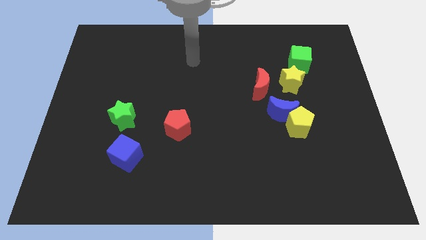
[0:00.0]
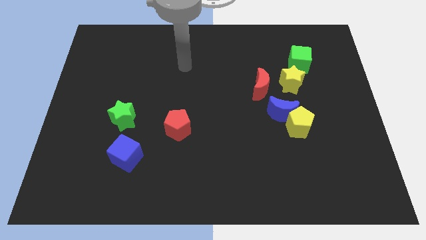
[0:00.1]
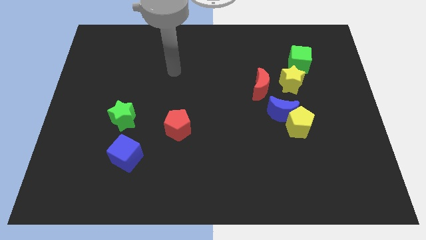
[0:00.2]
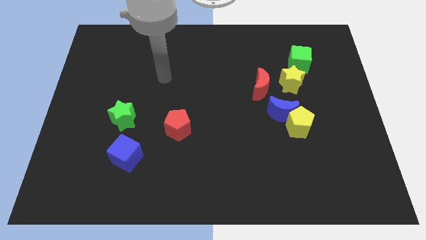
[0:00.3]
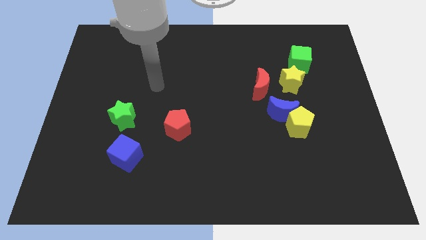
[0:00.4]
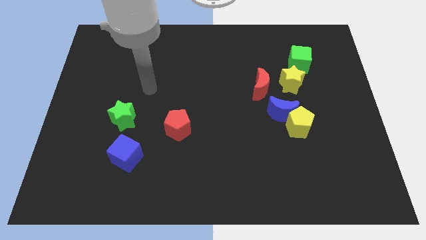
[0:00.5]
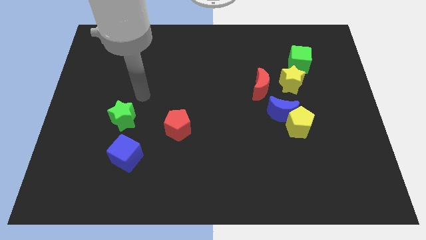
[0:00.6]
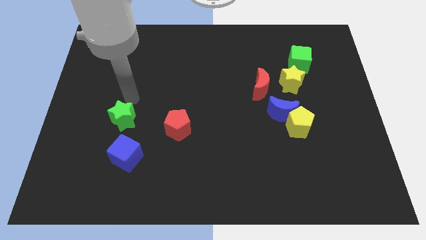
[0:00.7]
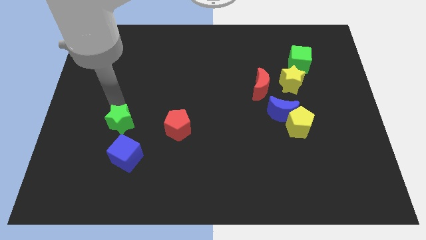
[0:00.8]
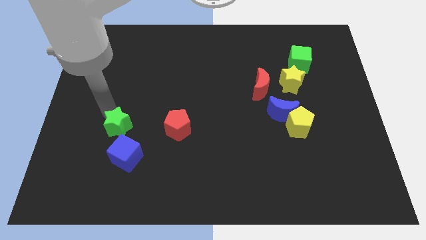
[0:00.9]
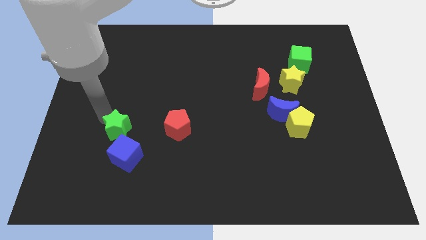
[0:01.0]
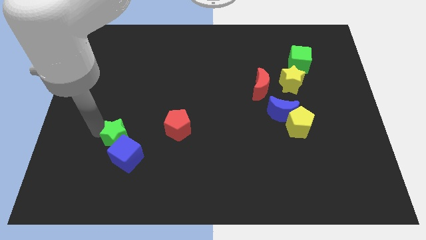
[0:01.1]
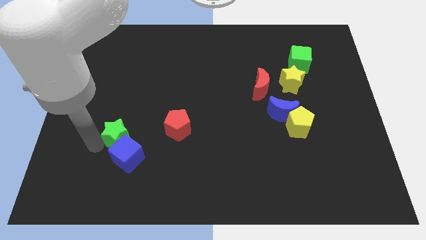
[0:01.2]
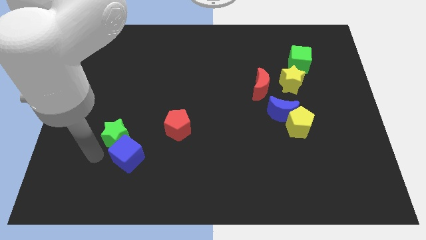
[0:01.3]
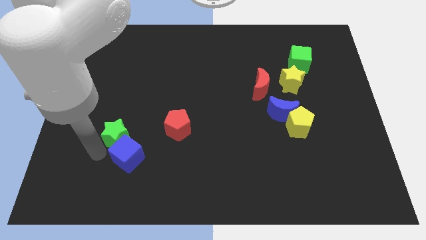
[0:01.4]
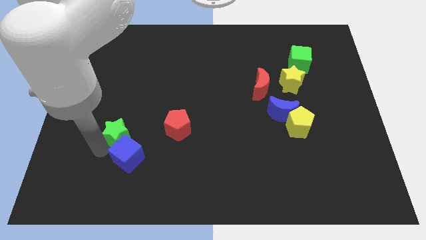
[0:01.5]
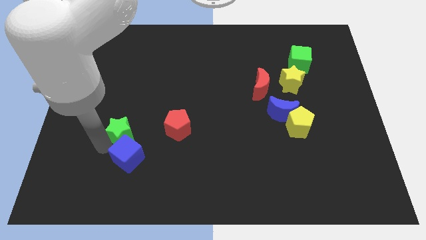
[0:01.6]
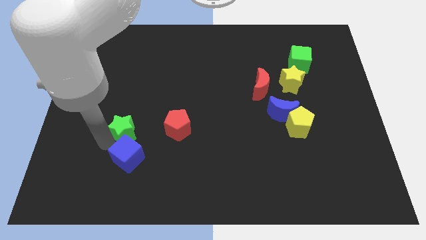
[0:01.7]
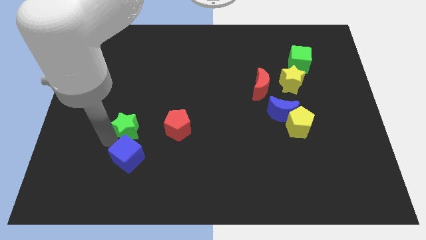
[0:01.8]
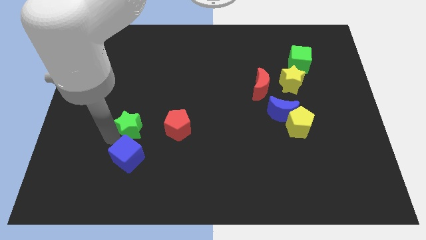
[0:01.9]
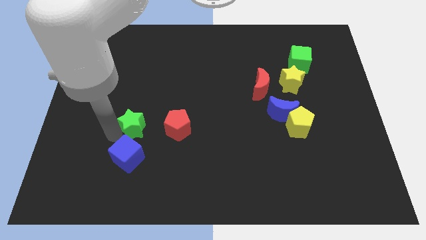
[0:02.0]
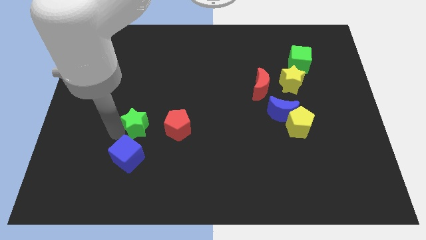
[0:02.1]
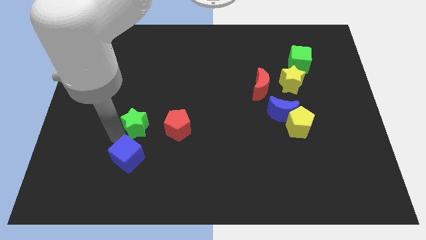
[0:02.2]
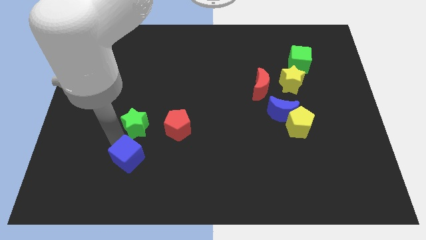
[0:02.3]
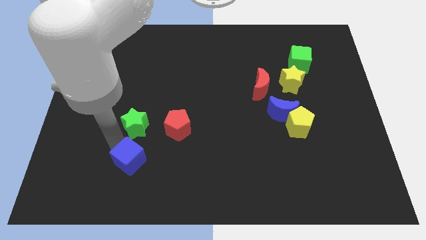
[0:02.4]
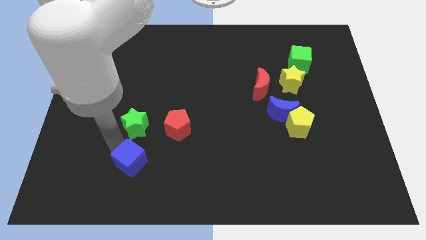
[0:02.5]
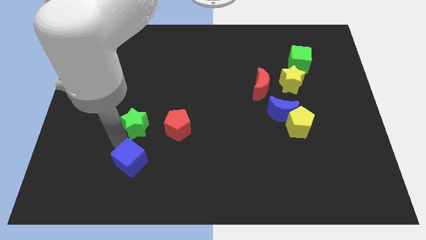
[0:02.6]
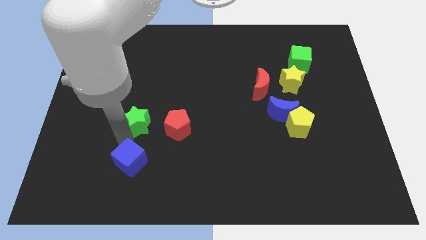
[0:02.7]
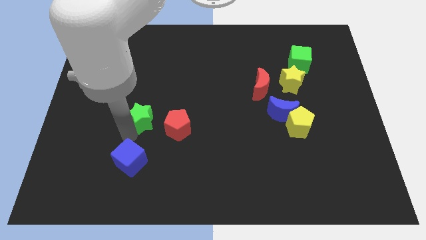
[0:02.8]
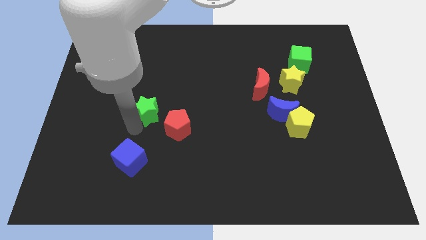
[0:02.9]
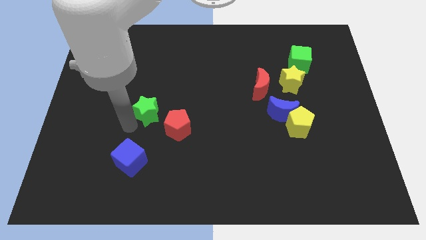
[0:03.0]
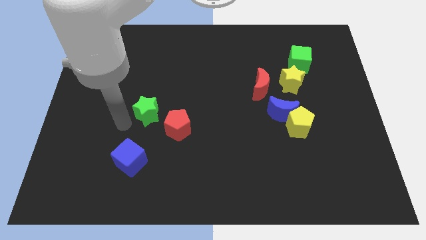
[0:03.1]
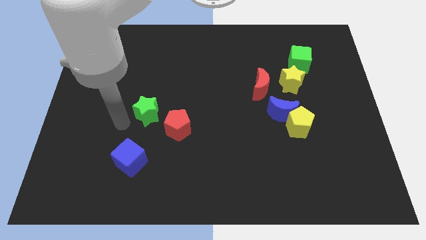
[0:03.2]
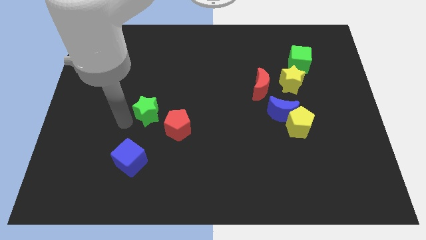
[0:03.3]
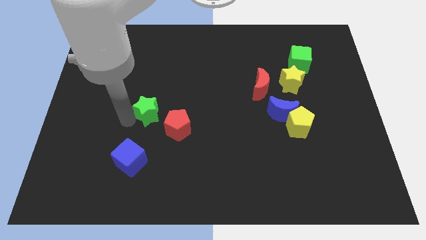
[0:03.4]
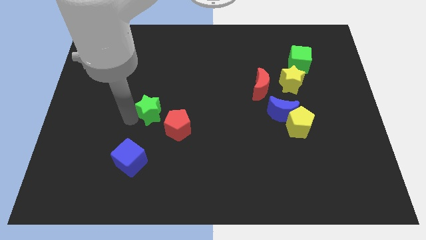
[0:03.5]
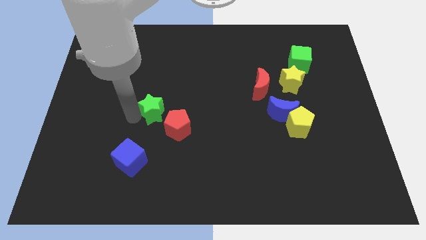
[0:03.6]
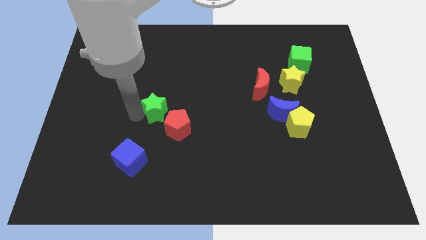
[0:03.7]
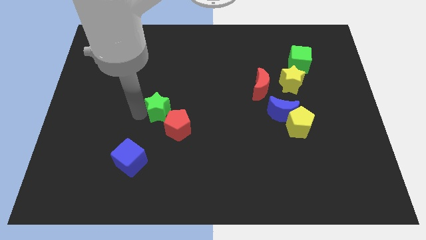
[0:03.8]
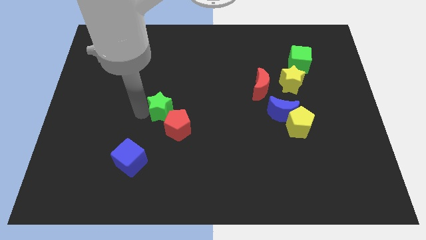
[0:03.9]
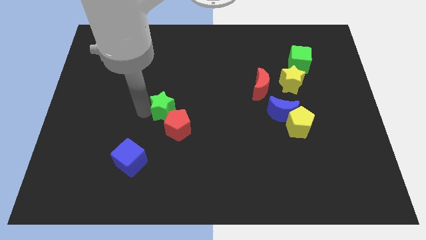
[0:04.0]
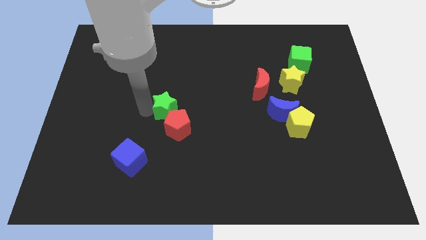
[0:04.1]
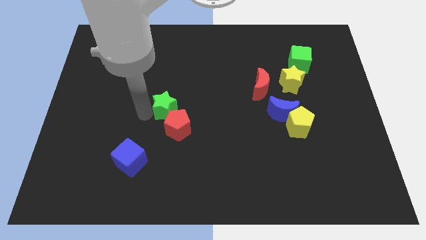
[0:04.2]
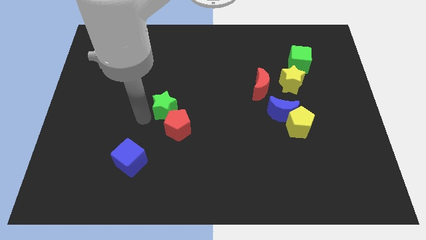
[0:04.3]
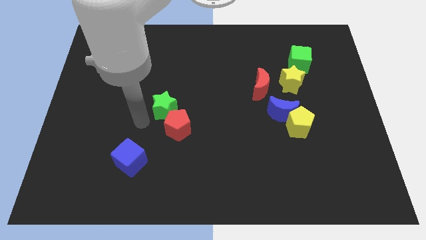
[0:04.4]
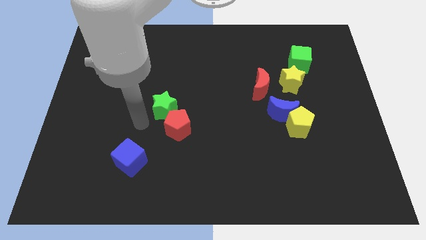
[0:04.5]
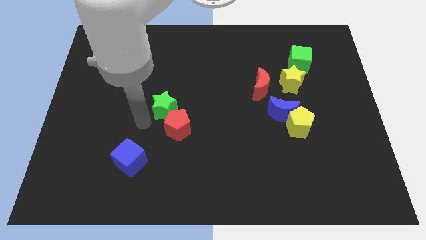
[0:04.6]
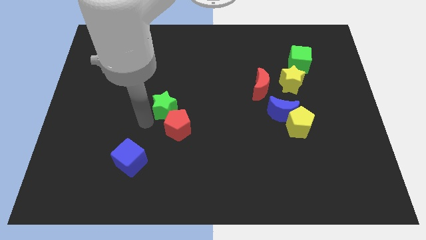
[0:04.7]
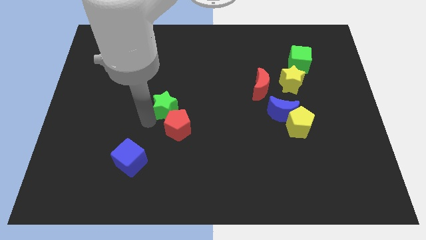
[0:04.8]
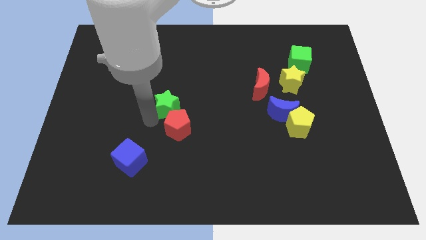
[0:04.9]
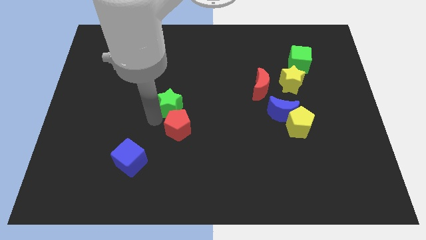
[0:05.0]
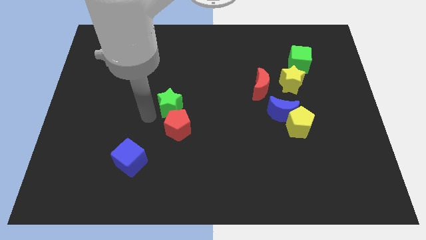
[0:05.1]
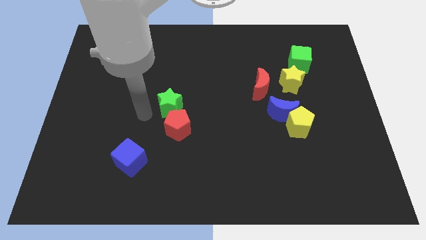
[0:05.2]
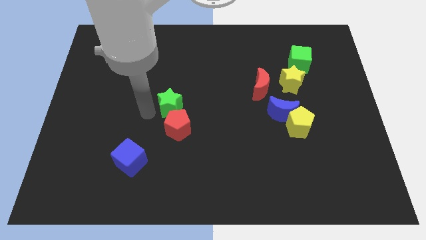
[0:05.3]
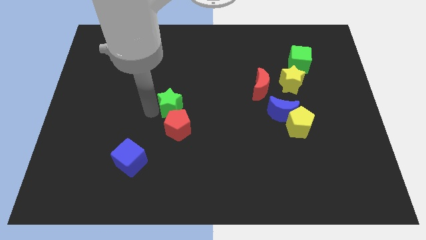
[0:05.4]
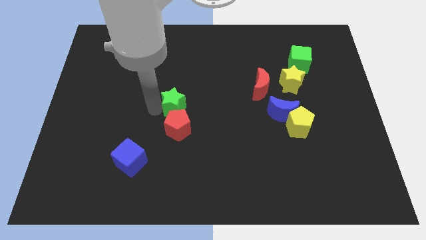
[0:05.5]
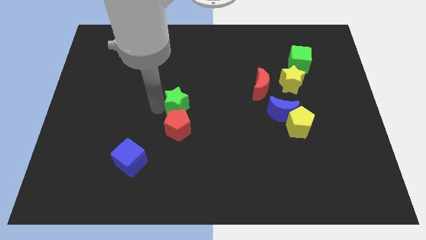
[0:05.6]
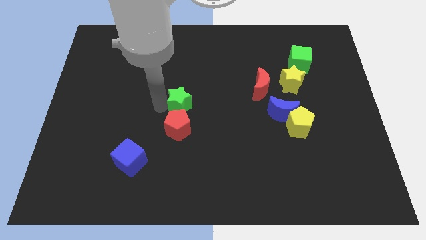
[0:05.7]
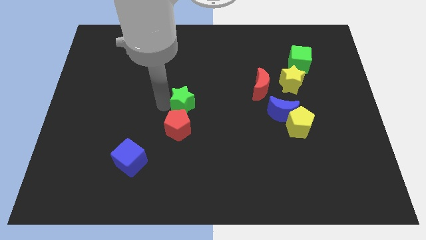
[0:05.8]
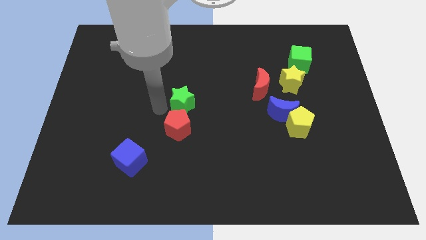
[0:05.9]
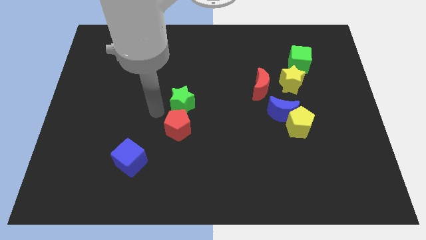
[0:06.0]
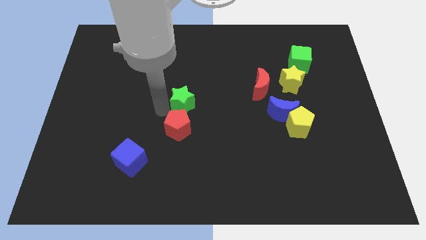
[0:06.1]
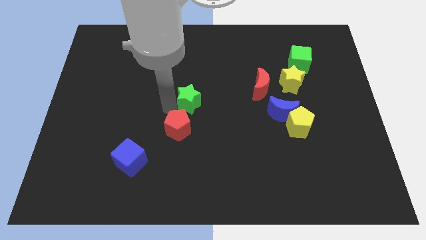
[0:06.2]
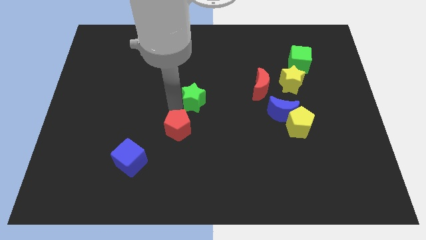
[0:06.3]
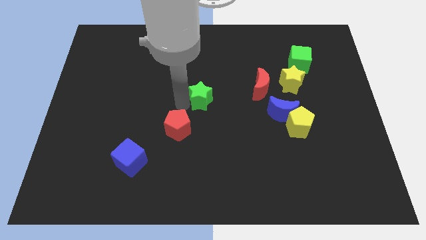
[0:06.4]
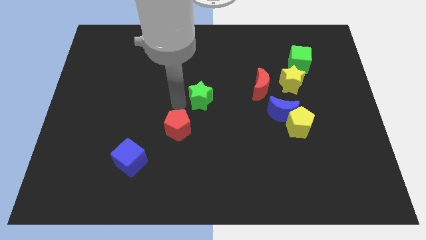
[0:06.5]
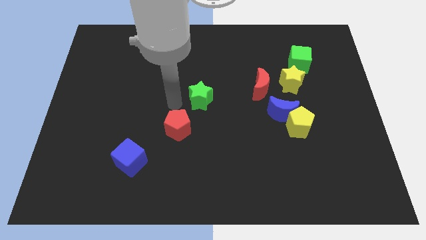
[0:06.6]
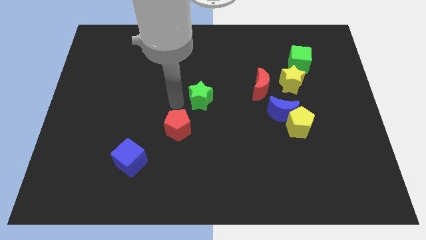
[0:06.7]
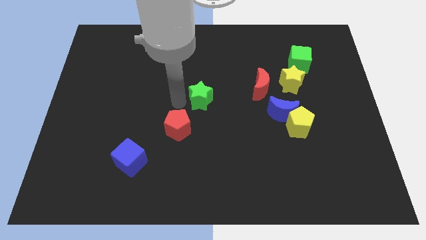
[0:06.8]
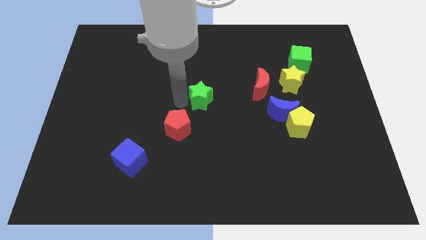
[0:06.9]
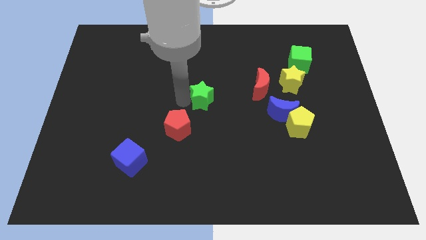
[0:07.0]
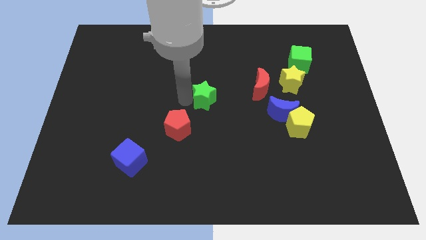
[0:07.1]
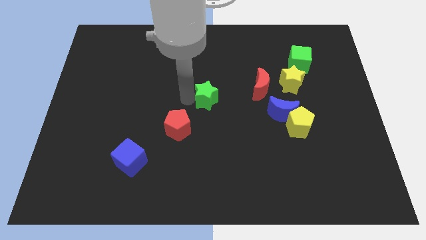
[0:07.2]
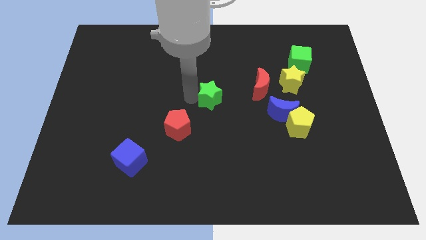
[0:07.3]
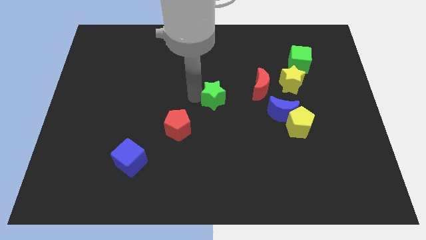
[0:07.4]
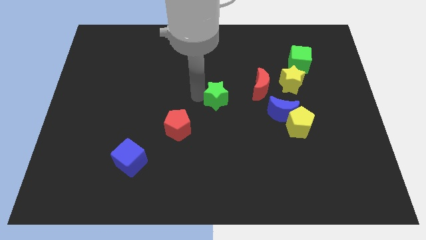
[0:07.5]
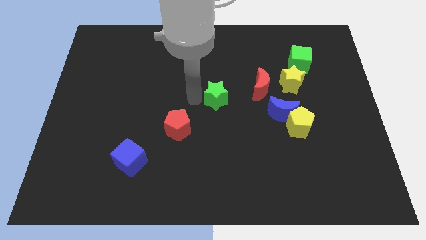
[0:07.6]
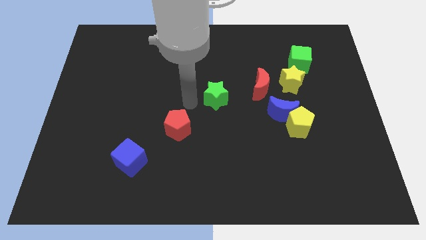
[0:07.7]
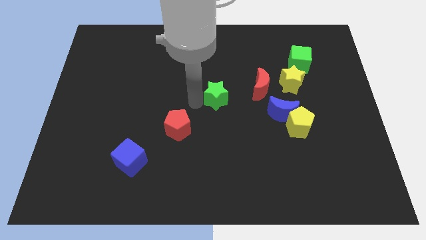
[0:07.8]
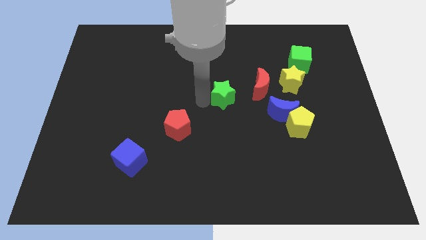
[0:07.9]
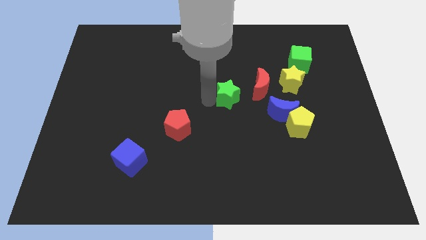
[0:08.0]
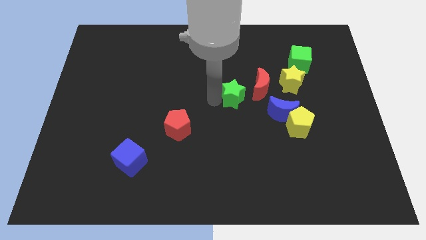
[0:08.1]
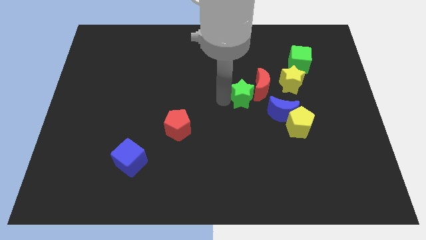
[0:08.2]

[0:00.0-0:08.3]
move the green star next to the red moon
